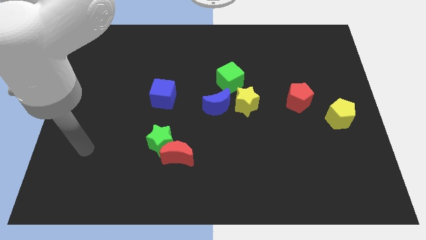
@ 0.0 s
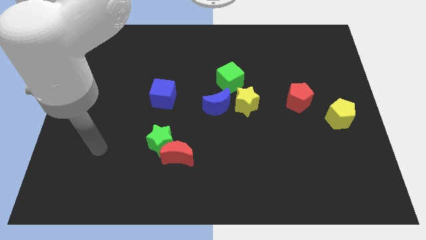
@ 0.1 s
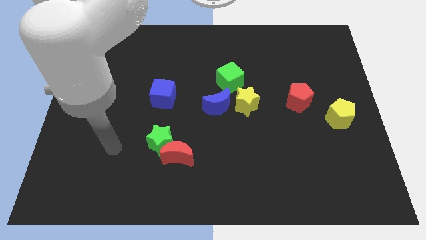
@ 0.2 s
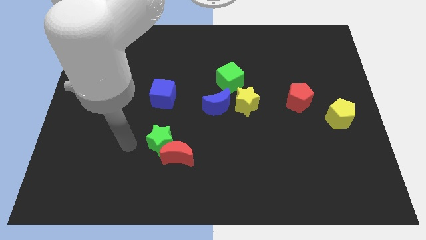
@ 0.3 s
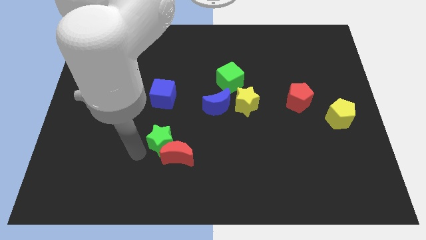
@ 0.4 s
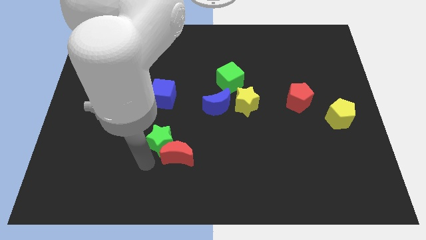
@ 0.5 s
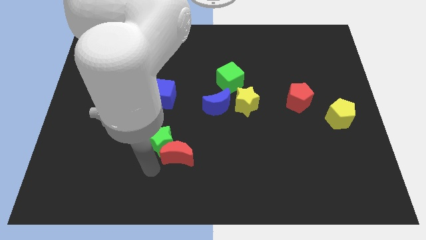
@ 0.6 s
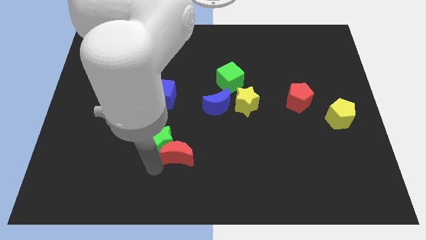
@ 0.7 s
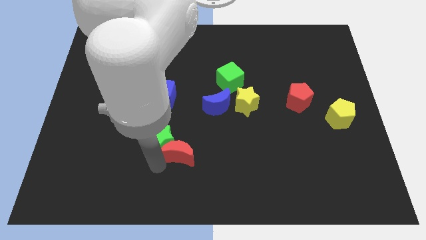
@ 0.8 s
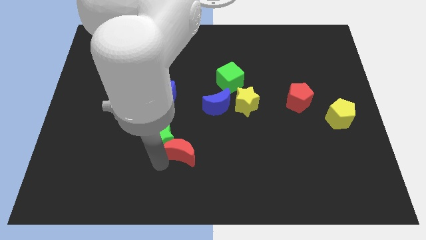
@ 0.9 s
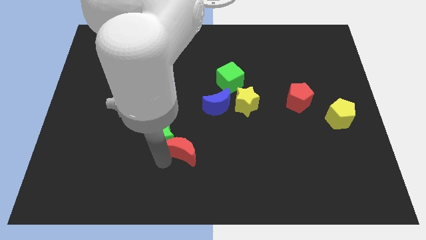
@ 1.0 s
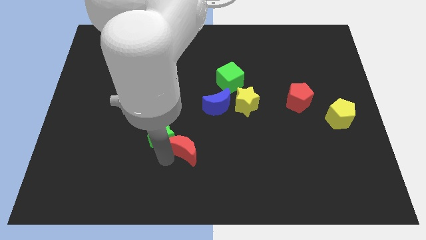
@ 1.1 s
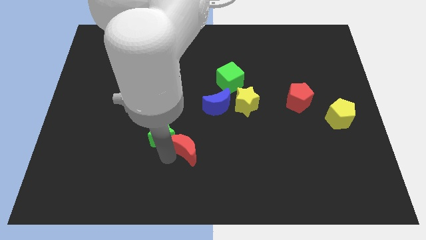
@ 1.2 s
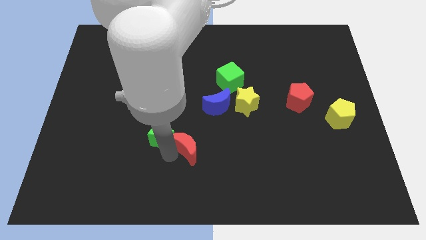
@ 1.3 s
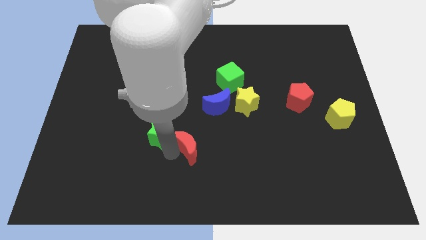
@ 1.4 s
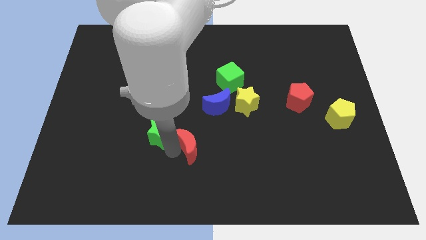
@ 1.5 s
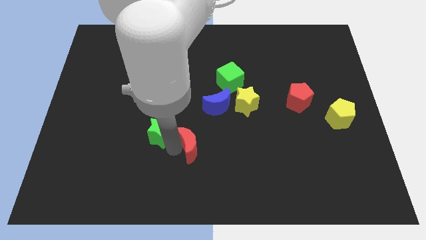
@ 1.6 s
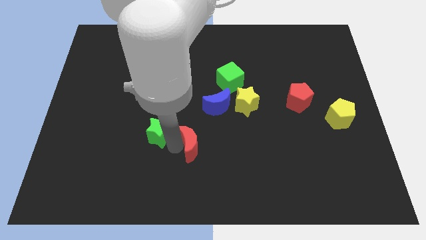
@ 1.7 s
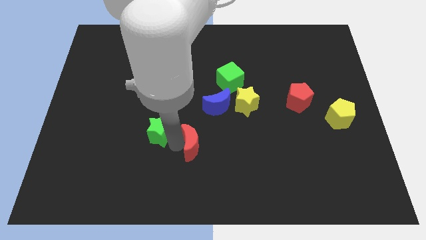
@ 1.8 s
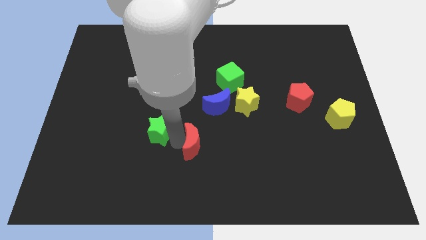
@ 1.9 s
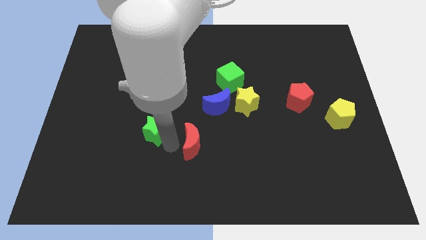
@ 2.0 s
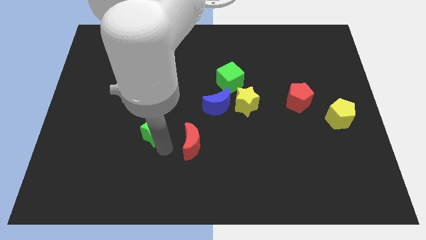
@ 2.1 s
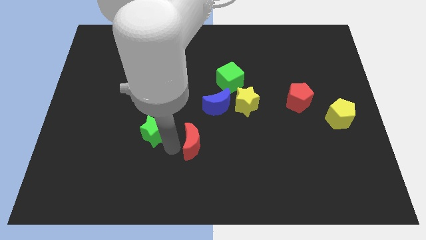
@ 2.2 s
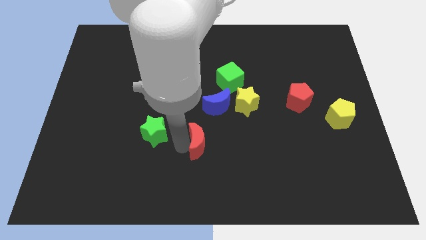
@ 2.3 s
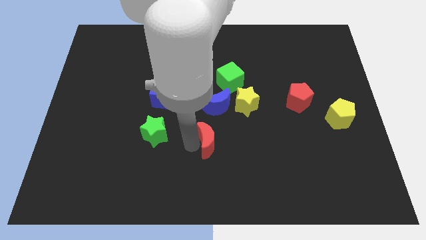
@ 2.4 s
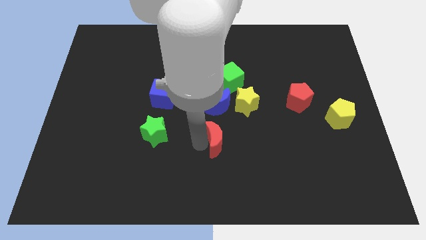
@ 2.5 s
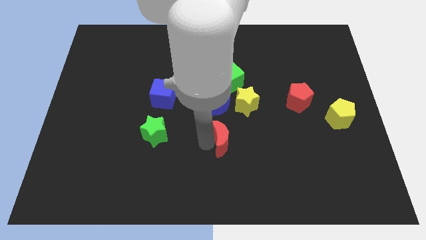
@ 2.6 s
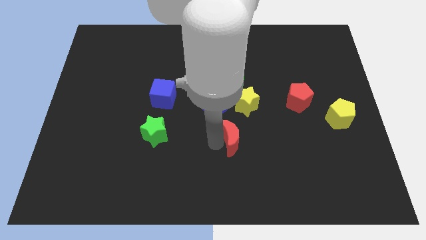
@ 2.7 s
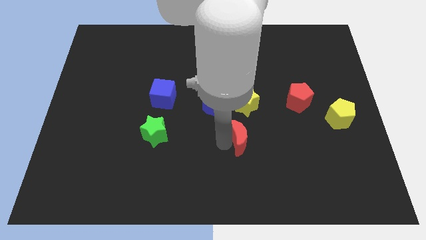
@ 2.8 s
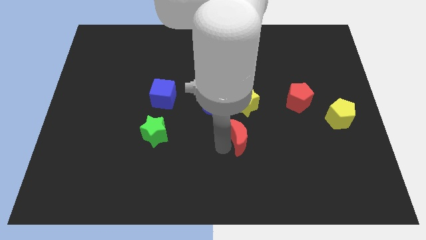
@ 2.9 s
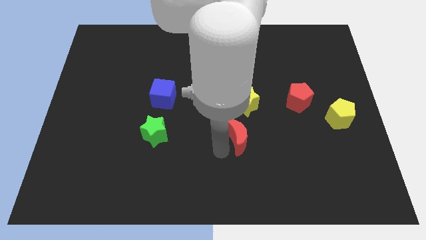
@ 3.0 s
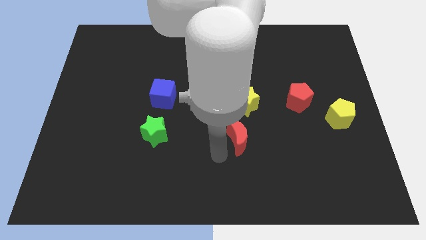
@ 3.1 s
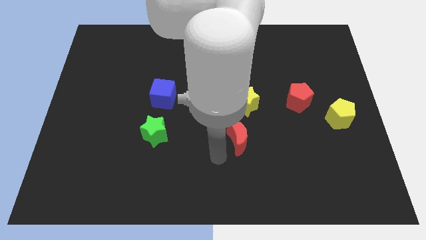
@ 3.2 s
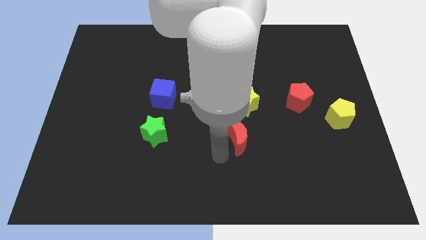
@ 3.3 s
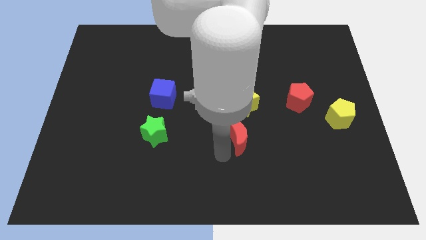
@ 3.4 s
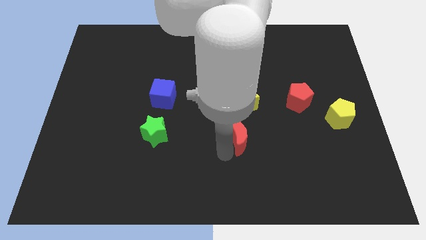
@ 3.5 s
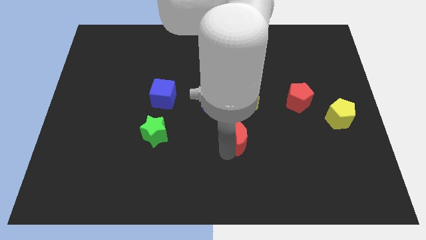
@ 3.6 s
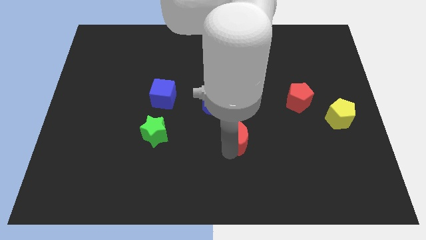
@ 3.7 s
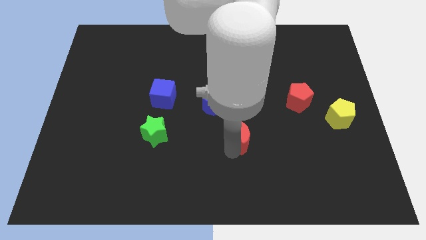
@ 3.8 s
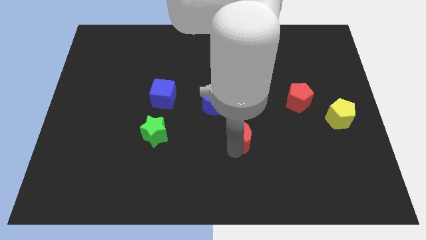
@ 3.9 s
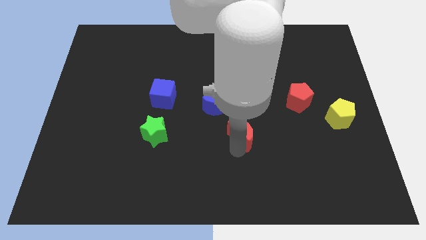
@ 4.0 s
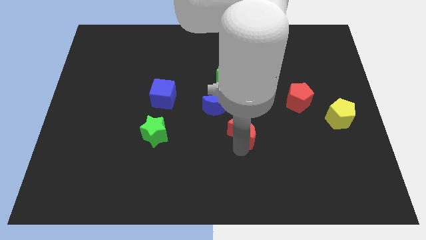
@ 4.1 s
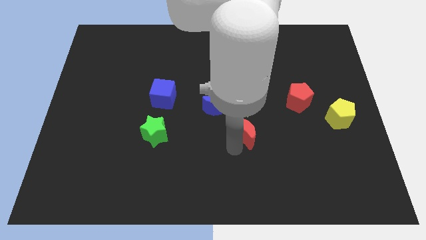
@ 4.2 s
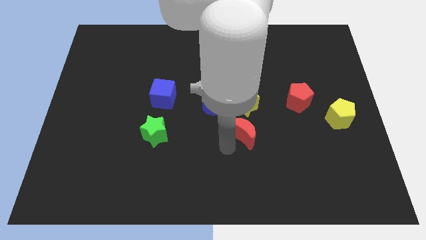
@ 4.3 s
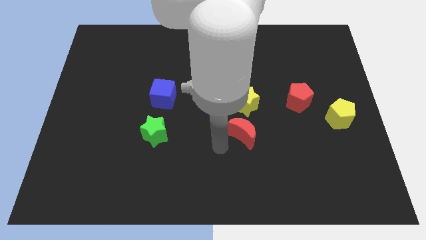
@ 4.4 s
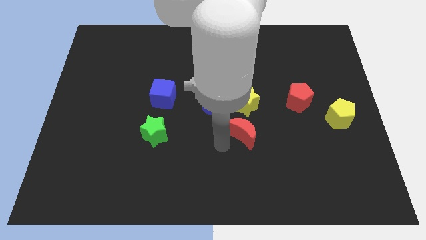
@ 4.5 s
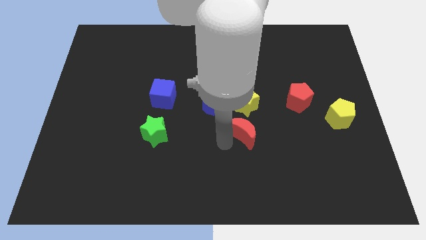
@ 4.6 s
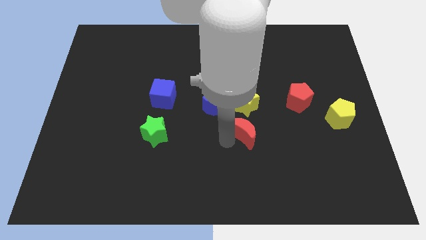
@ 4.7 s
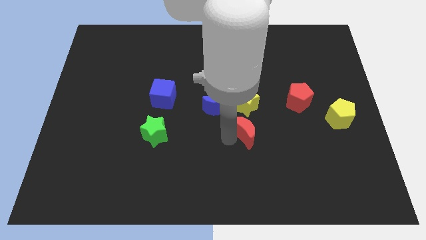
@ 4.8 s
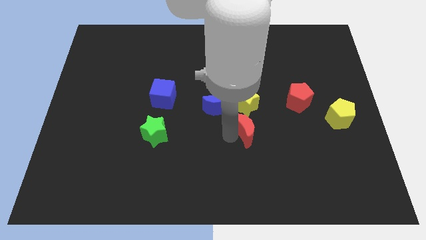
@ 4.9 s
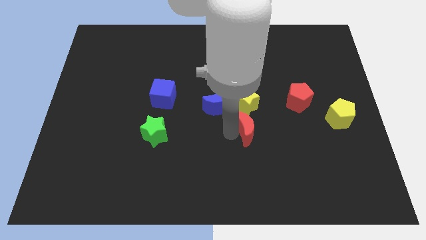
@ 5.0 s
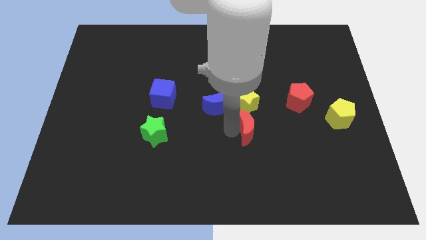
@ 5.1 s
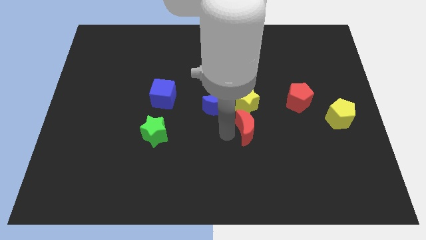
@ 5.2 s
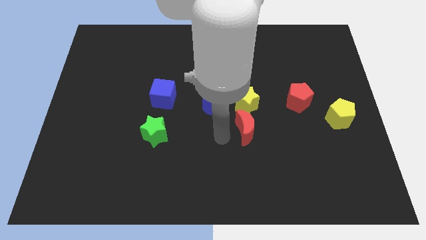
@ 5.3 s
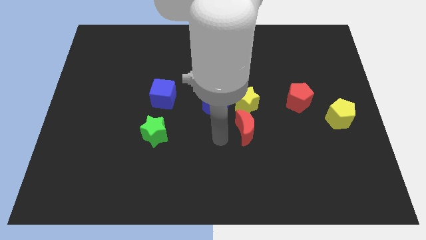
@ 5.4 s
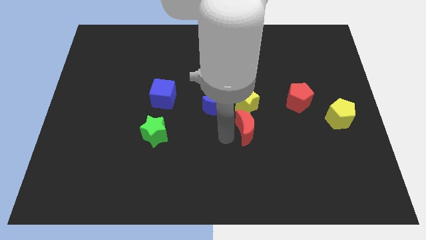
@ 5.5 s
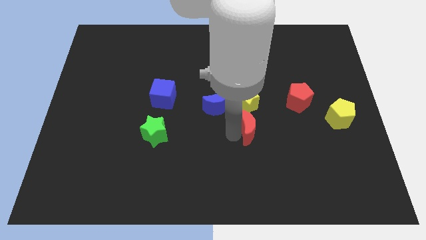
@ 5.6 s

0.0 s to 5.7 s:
slide the red moon to the bottom right of the yellow star

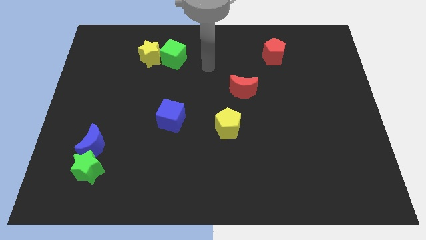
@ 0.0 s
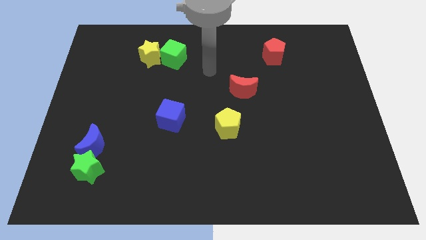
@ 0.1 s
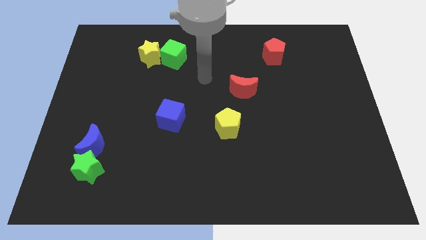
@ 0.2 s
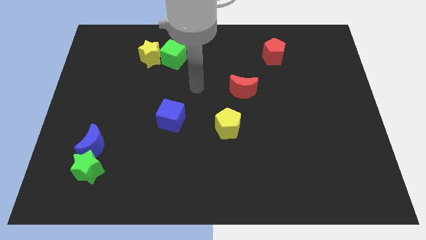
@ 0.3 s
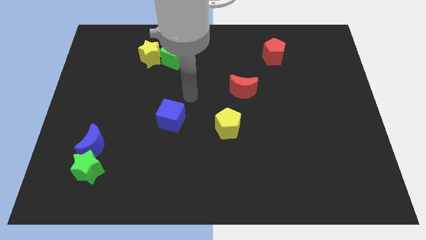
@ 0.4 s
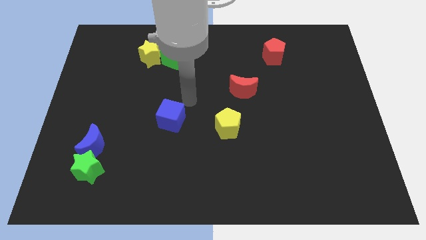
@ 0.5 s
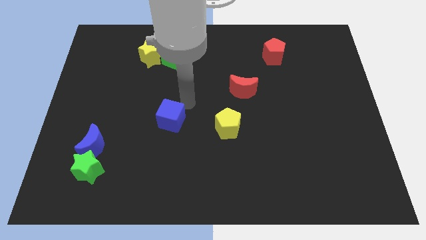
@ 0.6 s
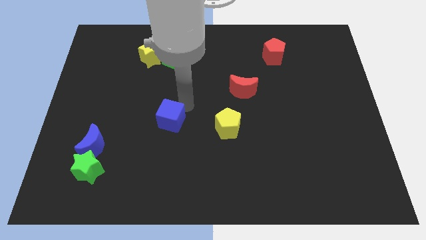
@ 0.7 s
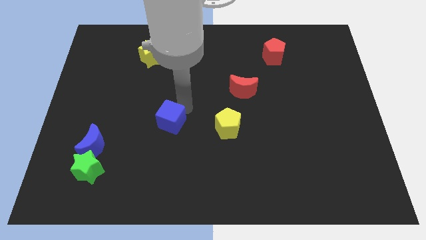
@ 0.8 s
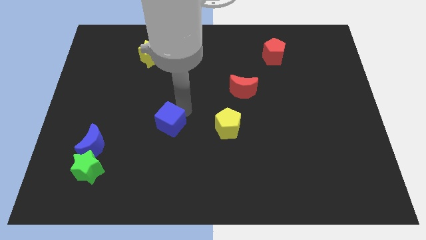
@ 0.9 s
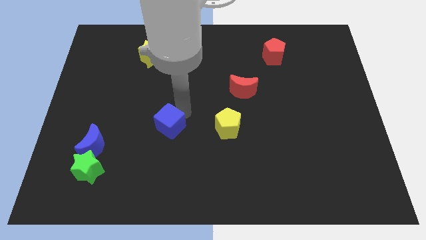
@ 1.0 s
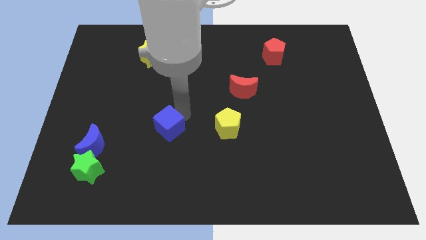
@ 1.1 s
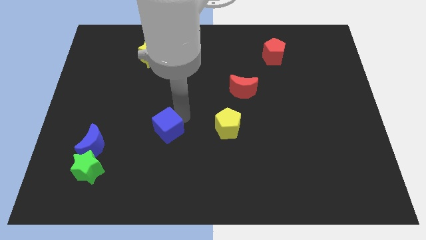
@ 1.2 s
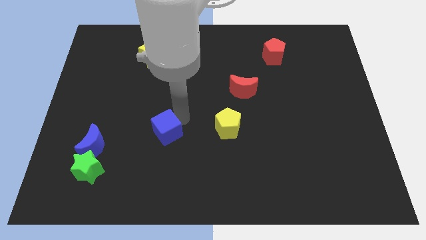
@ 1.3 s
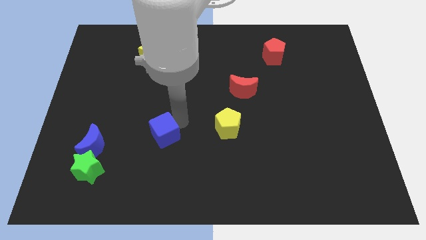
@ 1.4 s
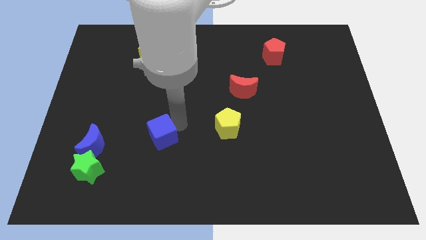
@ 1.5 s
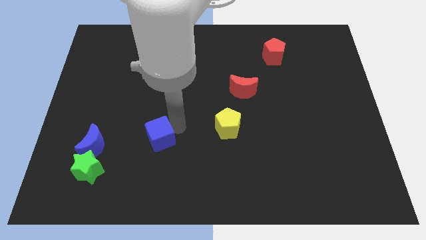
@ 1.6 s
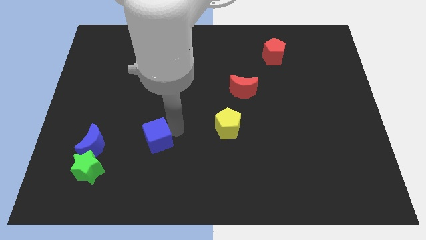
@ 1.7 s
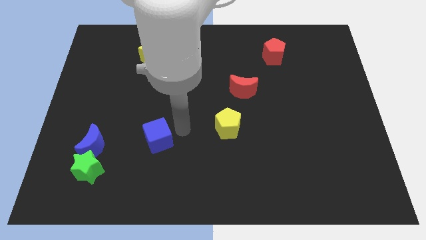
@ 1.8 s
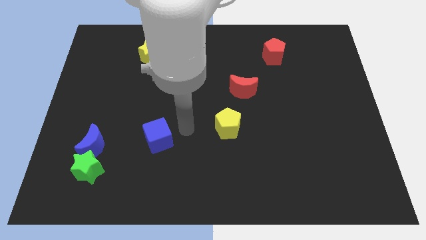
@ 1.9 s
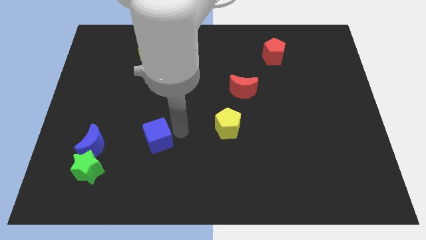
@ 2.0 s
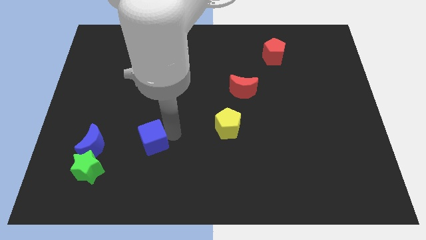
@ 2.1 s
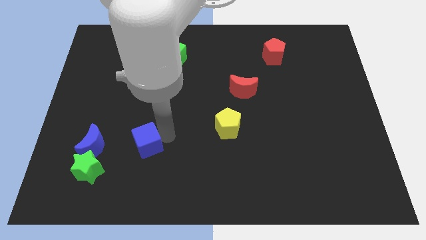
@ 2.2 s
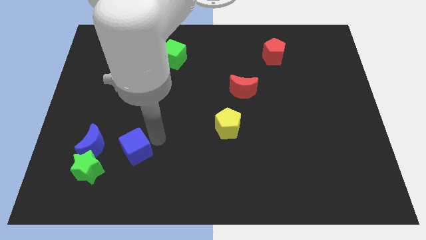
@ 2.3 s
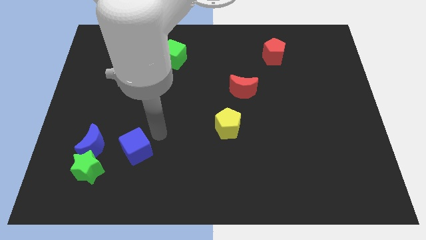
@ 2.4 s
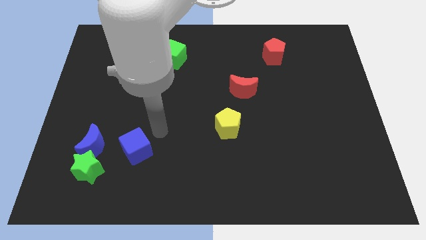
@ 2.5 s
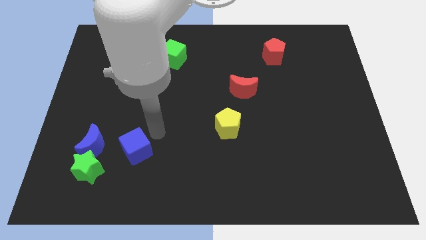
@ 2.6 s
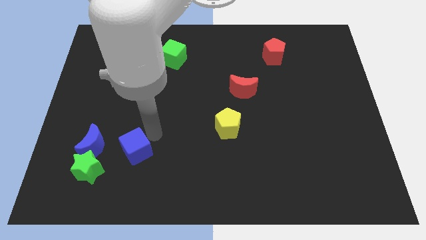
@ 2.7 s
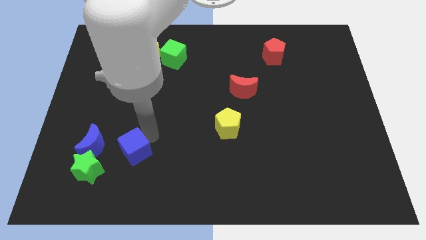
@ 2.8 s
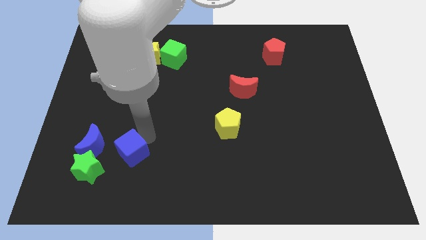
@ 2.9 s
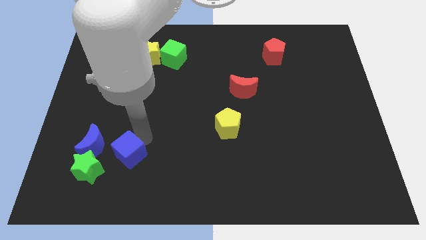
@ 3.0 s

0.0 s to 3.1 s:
put the blue cube to the bottom right side of the blue moon
